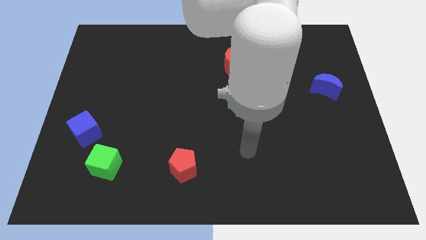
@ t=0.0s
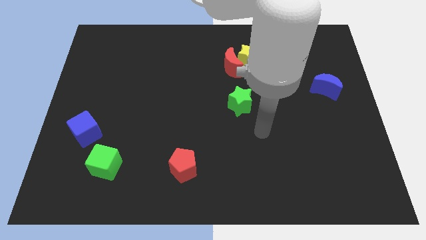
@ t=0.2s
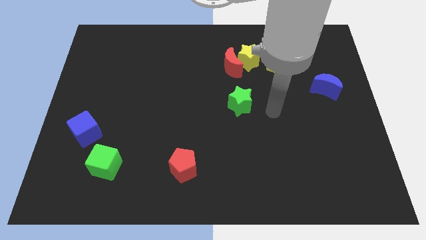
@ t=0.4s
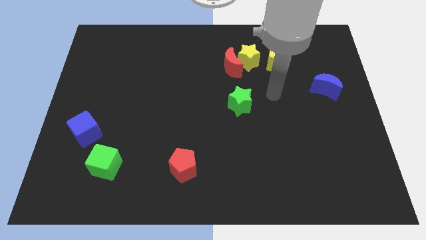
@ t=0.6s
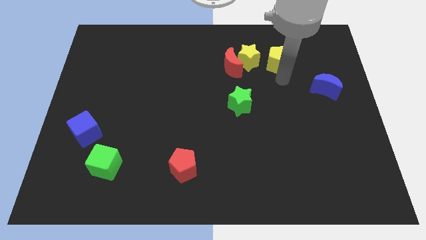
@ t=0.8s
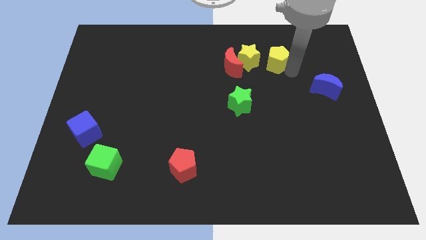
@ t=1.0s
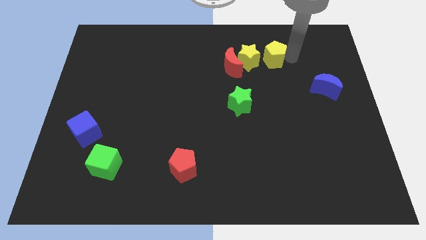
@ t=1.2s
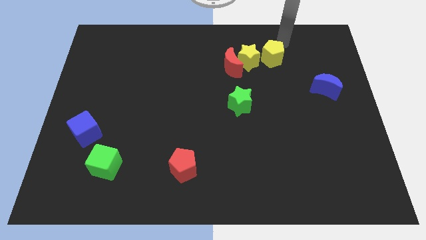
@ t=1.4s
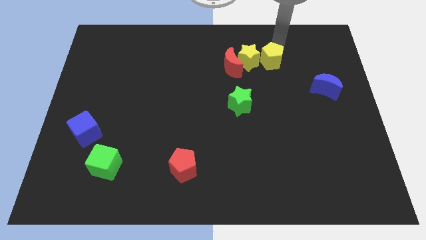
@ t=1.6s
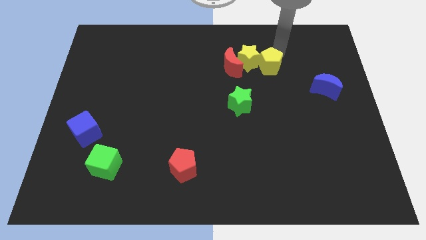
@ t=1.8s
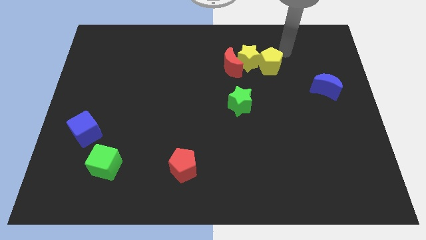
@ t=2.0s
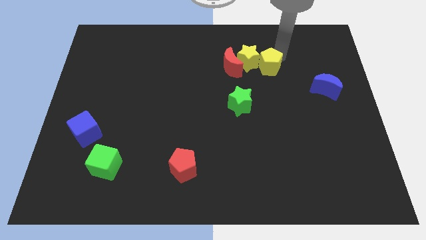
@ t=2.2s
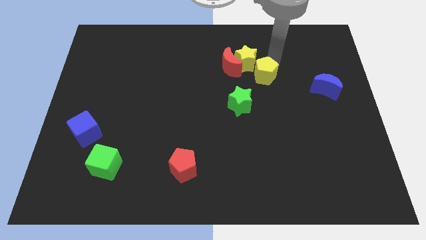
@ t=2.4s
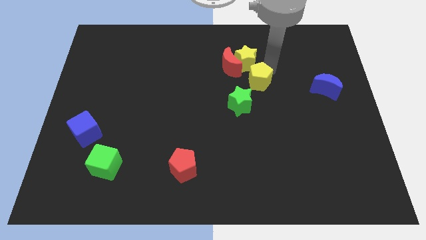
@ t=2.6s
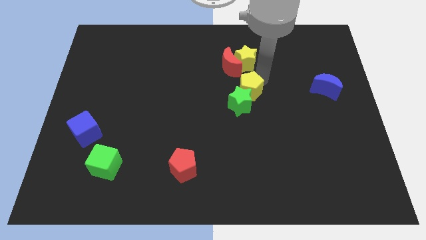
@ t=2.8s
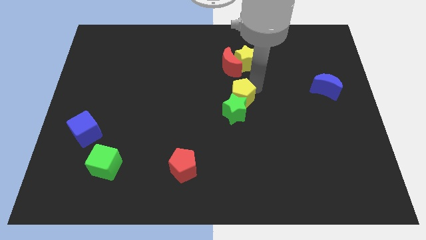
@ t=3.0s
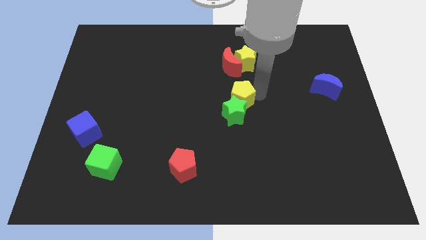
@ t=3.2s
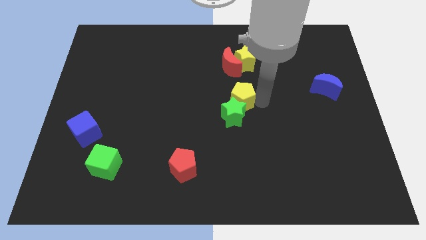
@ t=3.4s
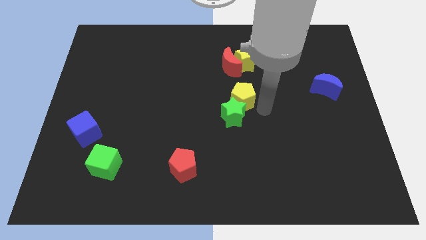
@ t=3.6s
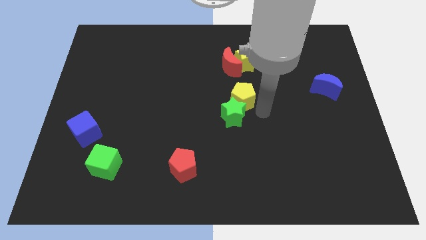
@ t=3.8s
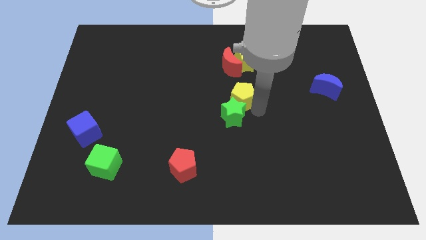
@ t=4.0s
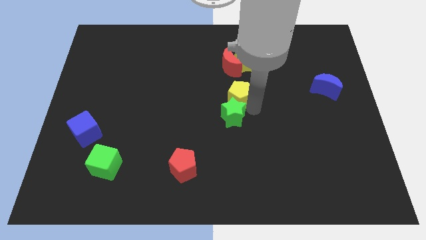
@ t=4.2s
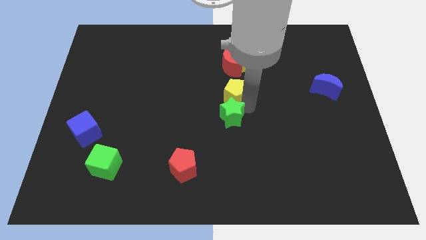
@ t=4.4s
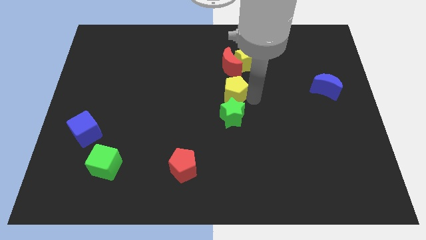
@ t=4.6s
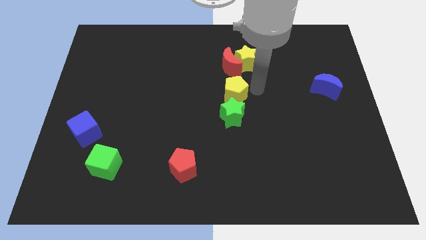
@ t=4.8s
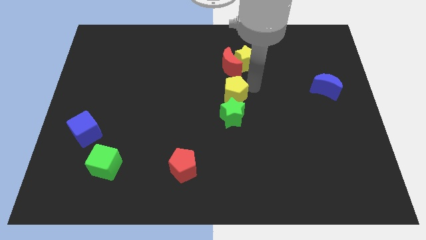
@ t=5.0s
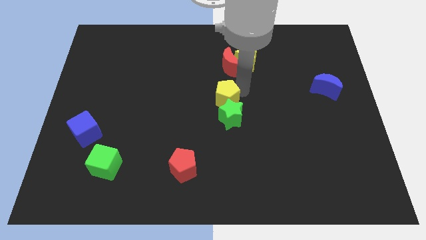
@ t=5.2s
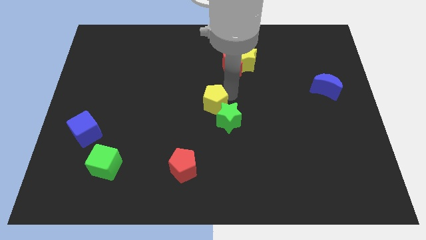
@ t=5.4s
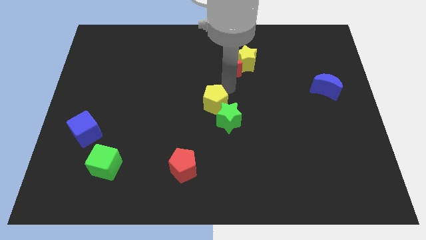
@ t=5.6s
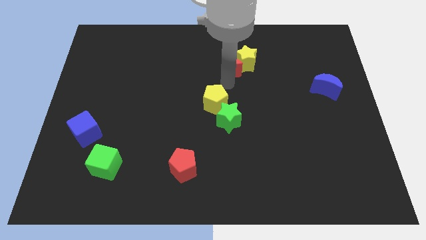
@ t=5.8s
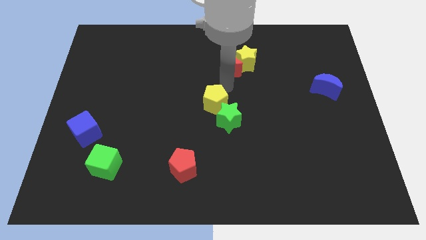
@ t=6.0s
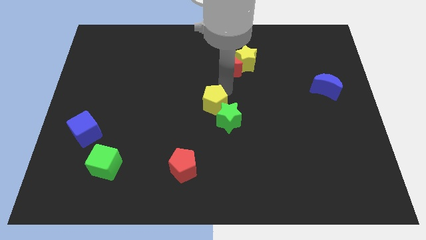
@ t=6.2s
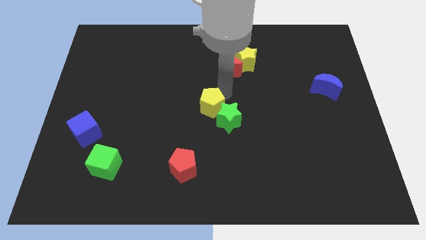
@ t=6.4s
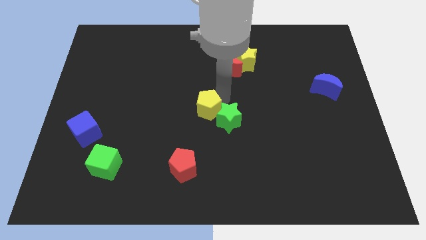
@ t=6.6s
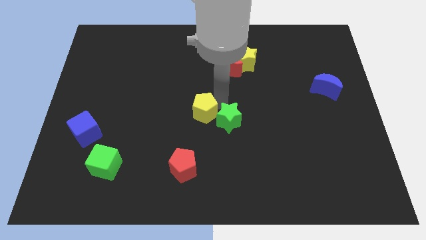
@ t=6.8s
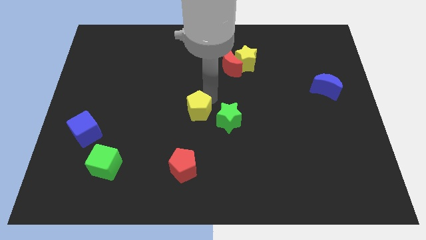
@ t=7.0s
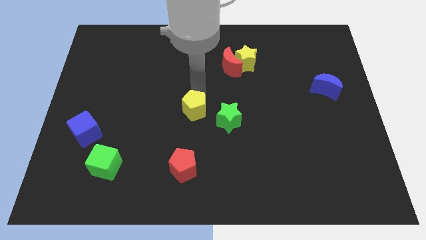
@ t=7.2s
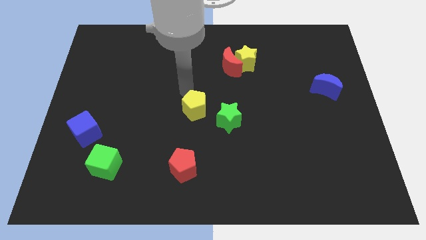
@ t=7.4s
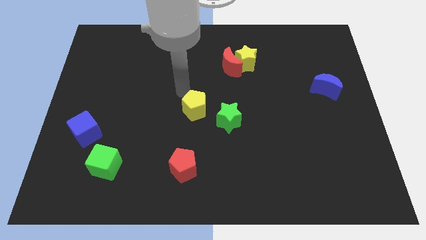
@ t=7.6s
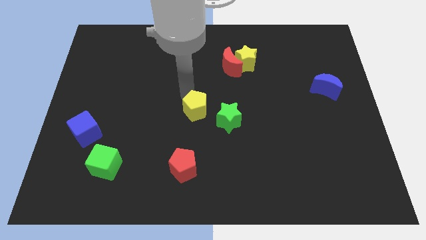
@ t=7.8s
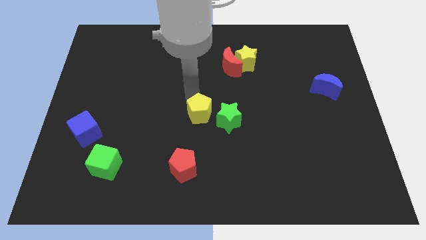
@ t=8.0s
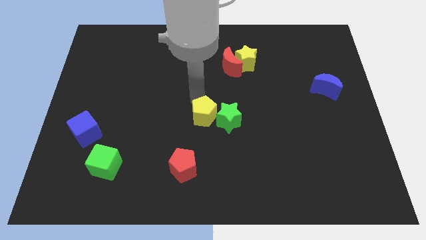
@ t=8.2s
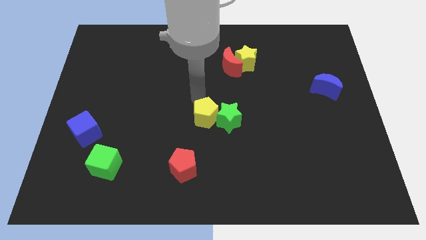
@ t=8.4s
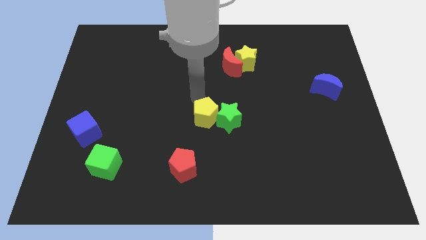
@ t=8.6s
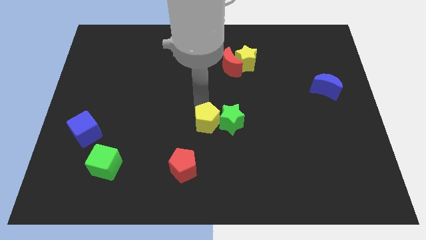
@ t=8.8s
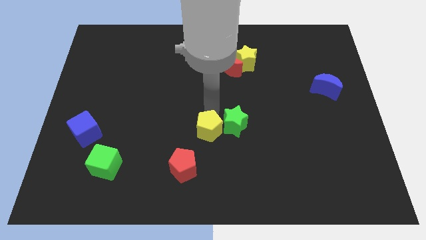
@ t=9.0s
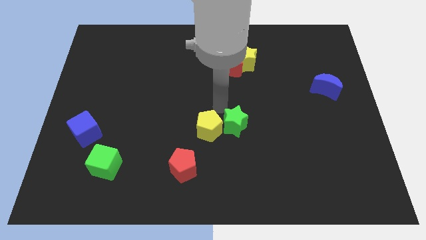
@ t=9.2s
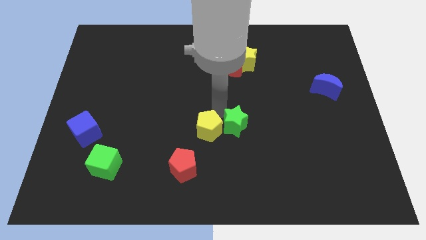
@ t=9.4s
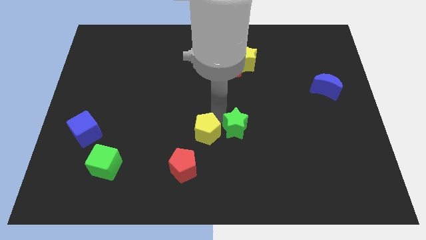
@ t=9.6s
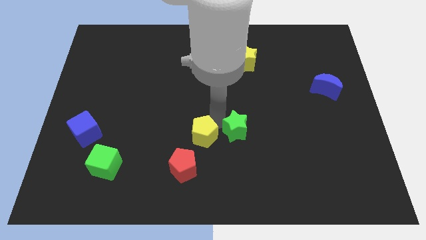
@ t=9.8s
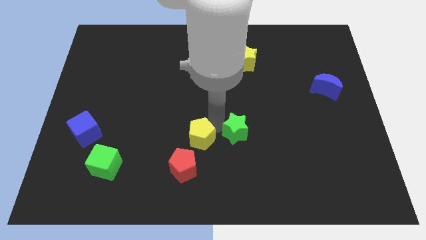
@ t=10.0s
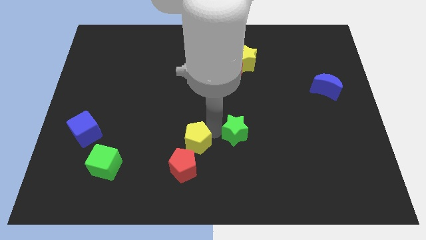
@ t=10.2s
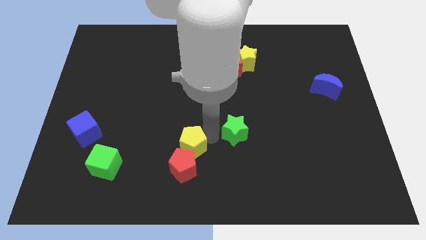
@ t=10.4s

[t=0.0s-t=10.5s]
slide the yellow pentagon to the red pentagon

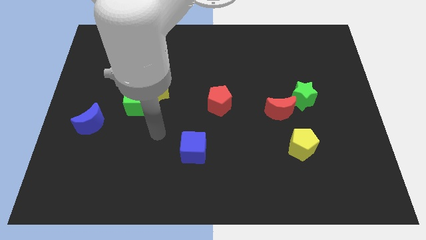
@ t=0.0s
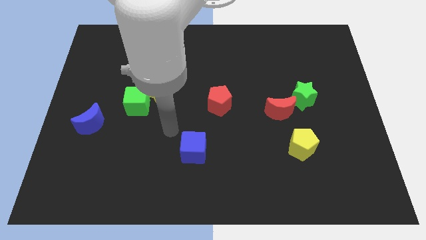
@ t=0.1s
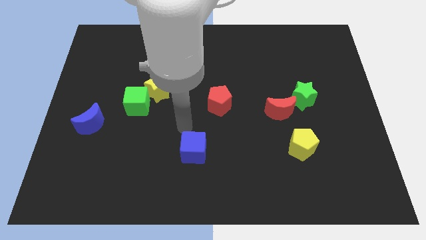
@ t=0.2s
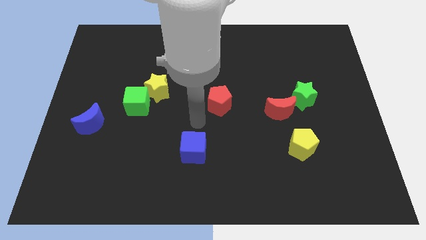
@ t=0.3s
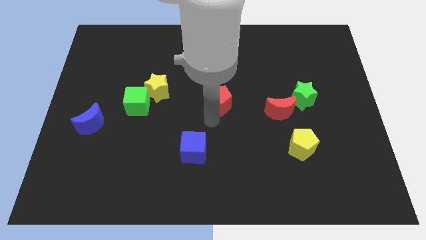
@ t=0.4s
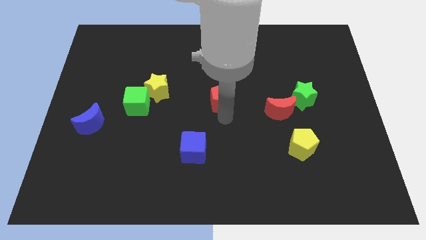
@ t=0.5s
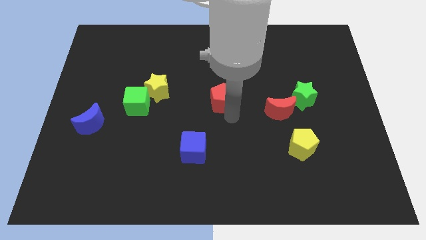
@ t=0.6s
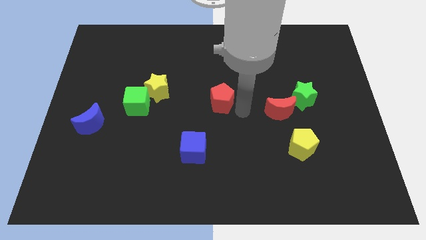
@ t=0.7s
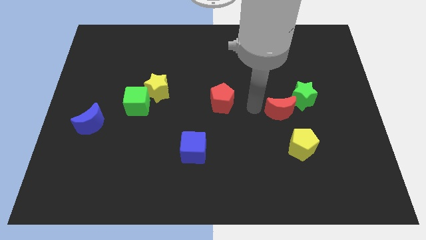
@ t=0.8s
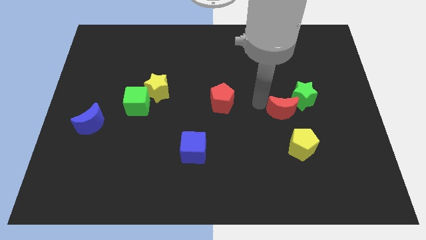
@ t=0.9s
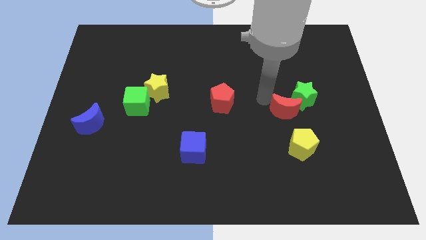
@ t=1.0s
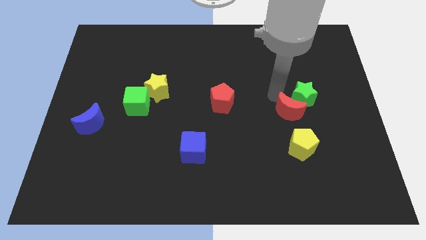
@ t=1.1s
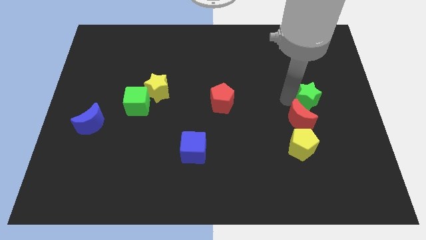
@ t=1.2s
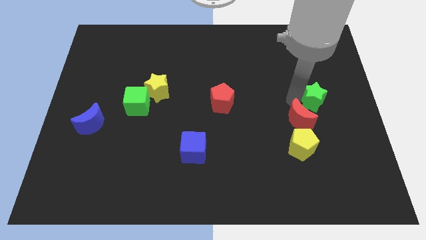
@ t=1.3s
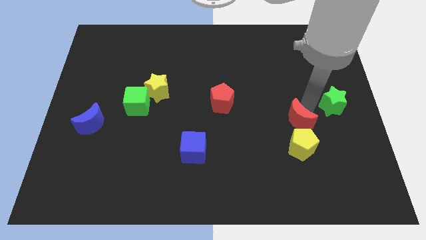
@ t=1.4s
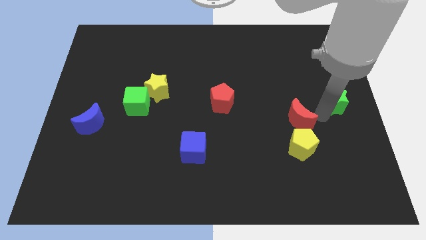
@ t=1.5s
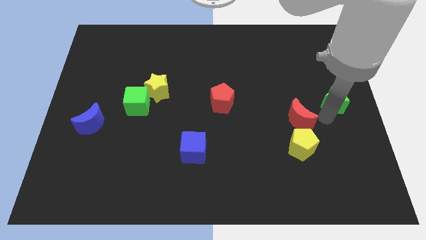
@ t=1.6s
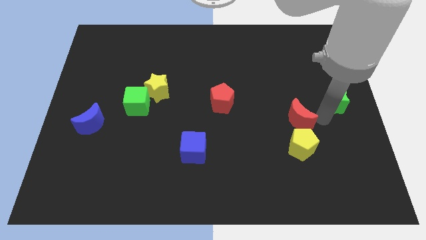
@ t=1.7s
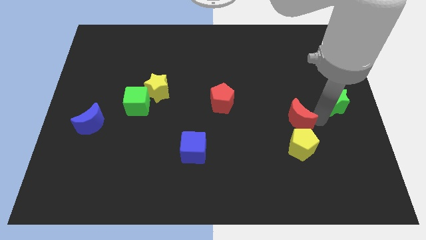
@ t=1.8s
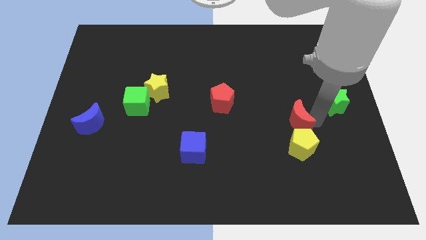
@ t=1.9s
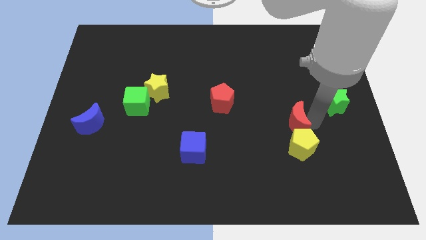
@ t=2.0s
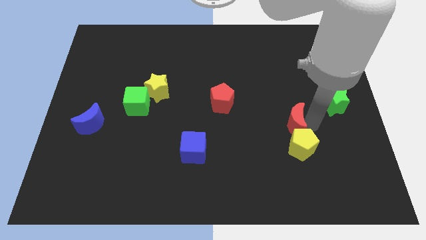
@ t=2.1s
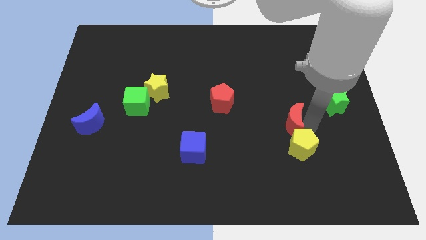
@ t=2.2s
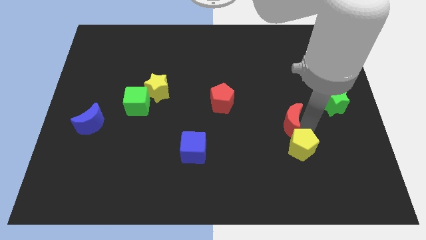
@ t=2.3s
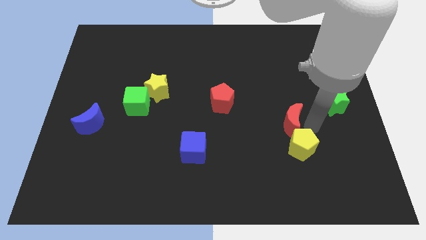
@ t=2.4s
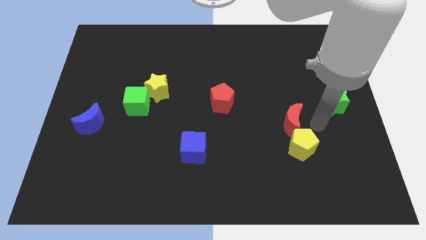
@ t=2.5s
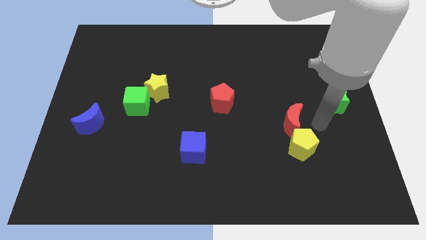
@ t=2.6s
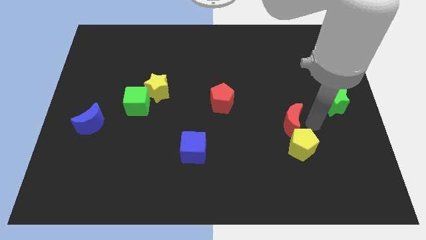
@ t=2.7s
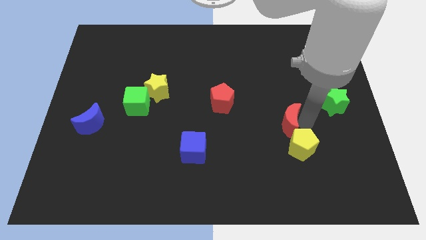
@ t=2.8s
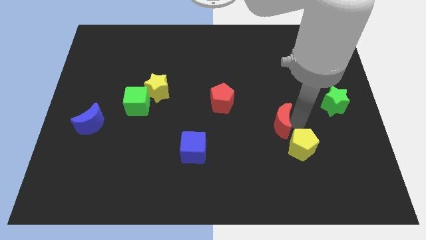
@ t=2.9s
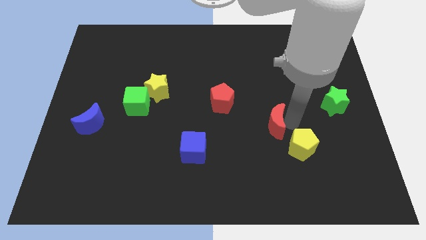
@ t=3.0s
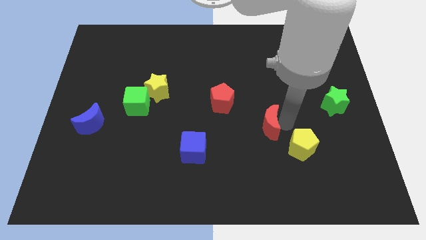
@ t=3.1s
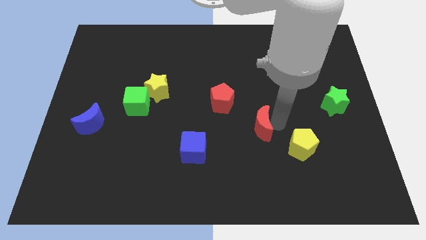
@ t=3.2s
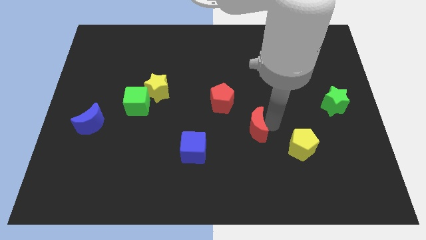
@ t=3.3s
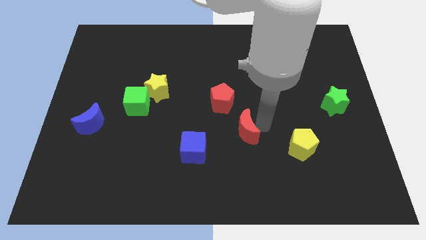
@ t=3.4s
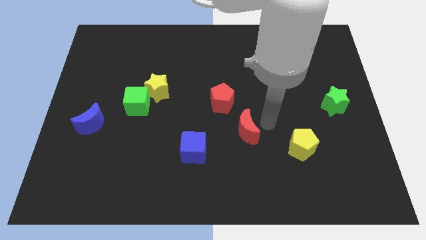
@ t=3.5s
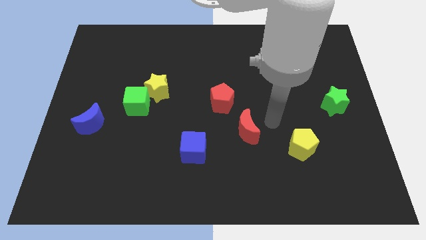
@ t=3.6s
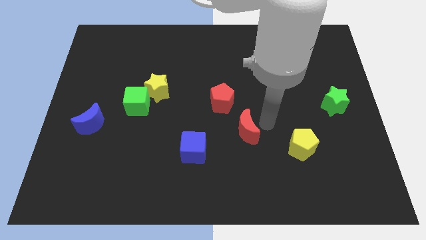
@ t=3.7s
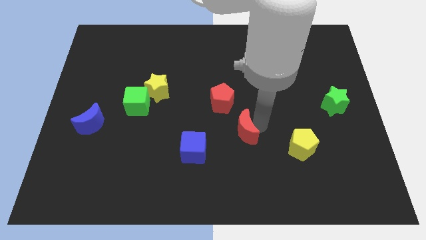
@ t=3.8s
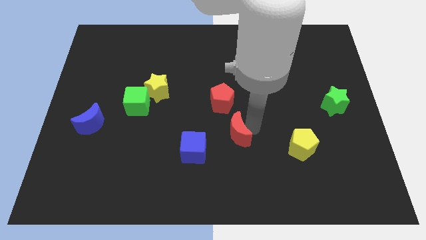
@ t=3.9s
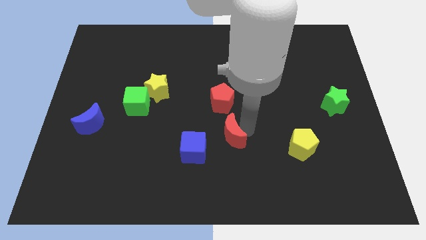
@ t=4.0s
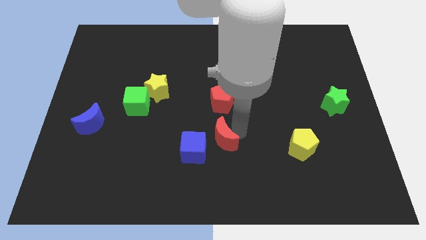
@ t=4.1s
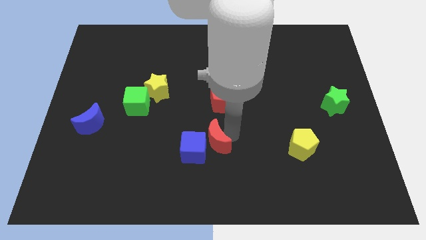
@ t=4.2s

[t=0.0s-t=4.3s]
put the red moon to the blue cube
